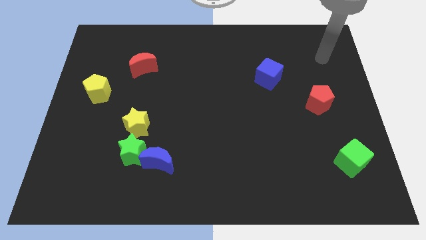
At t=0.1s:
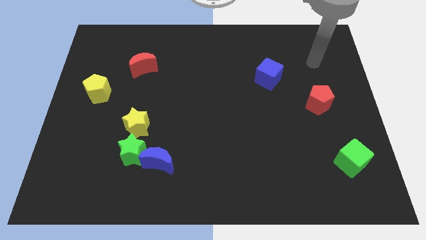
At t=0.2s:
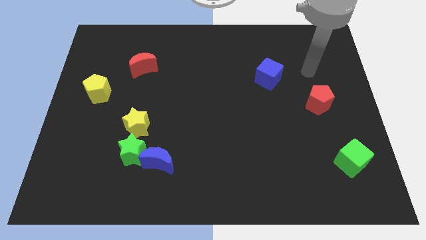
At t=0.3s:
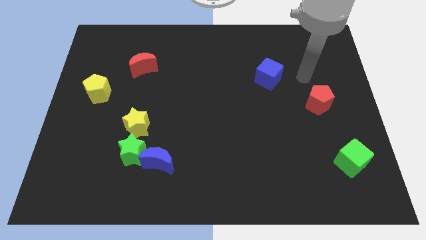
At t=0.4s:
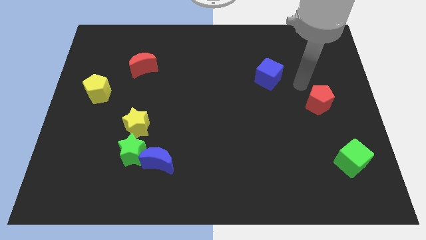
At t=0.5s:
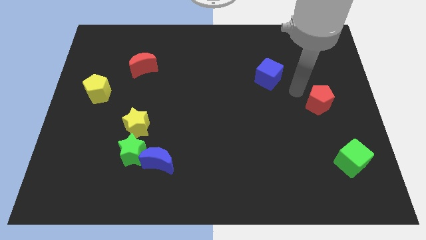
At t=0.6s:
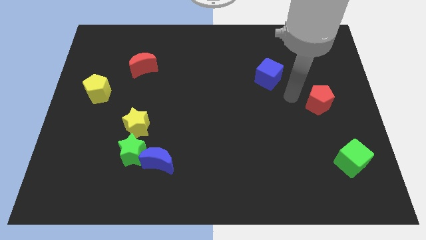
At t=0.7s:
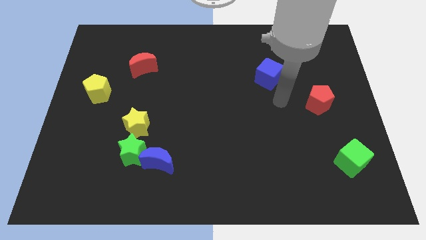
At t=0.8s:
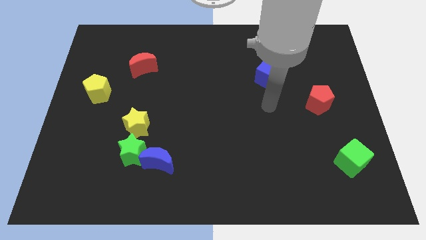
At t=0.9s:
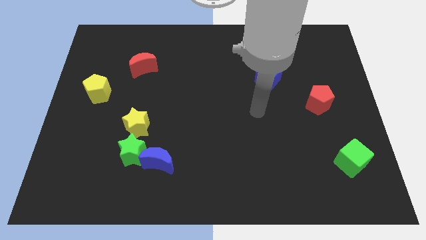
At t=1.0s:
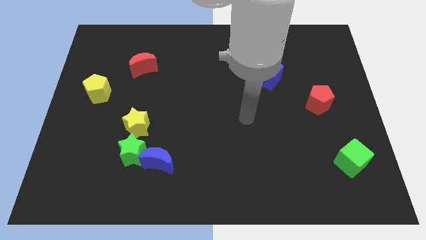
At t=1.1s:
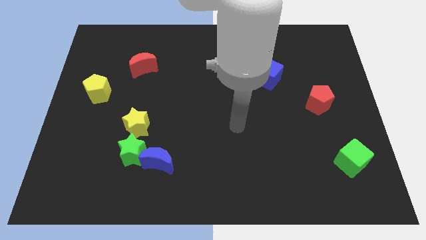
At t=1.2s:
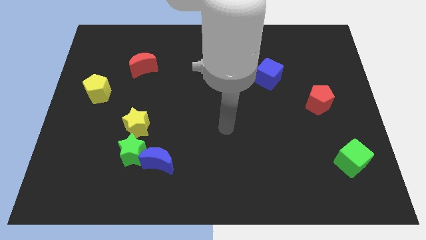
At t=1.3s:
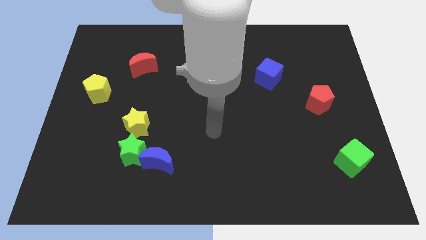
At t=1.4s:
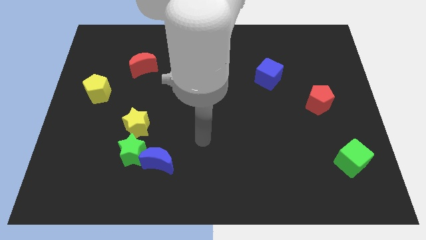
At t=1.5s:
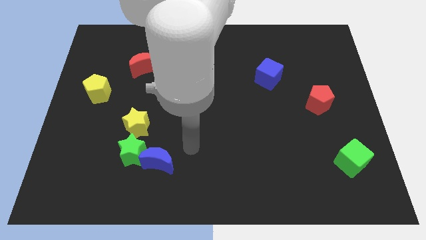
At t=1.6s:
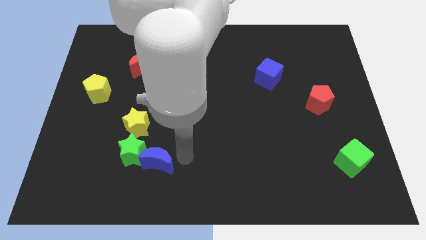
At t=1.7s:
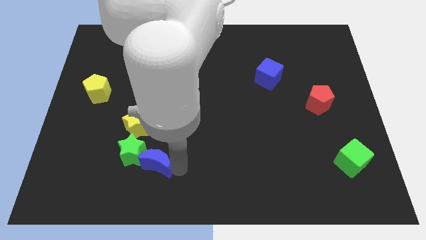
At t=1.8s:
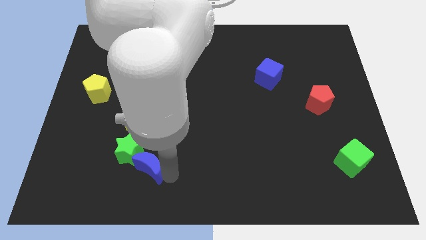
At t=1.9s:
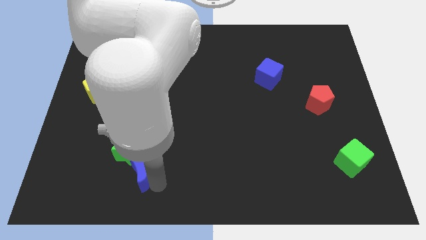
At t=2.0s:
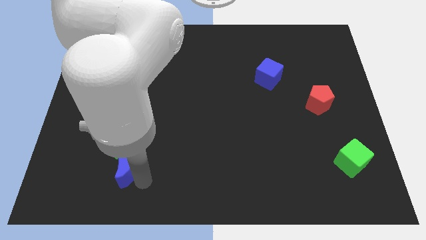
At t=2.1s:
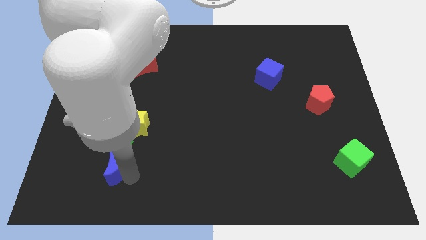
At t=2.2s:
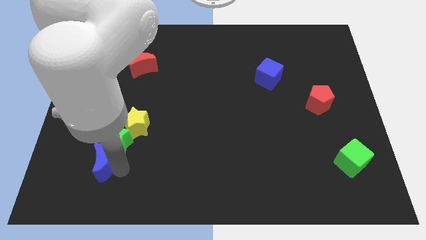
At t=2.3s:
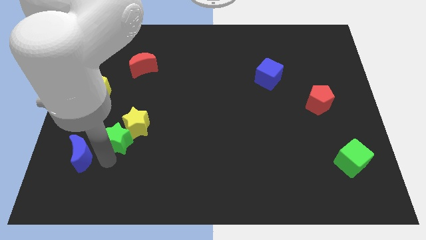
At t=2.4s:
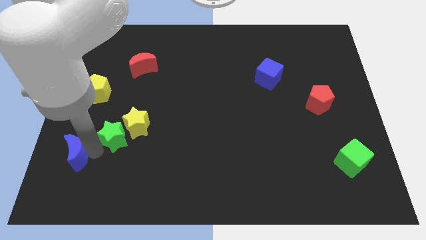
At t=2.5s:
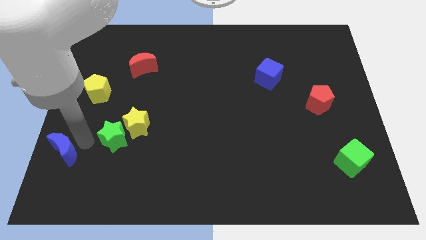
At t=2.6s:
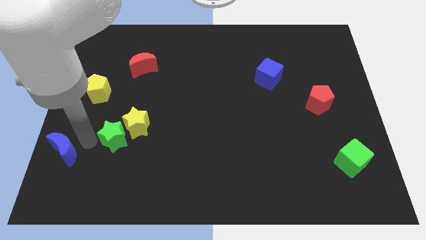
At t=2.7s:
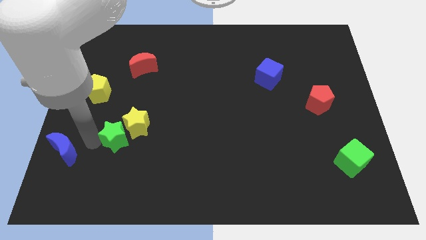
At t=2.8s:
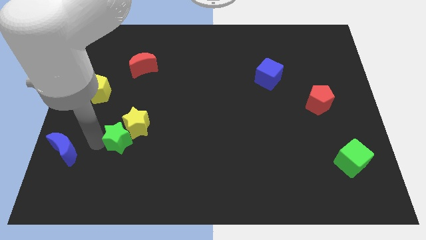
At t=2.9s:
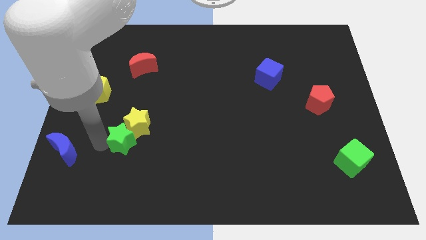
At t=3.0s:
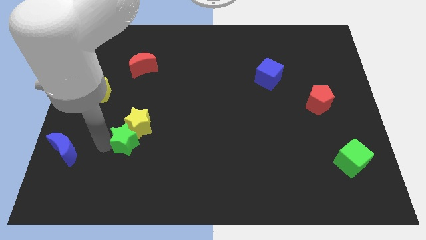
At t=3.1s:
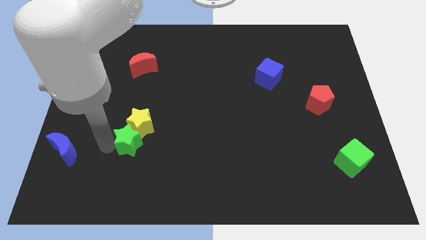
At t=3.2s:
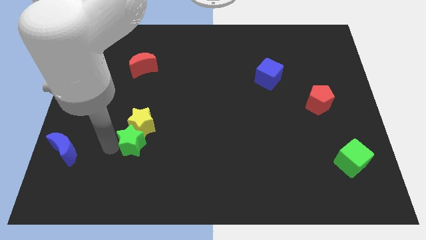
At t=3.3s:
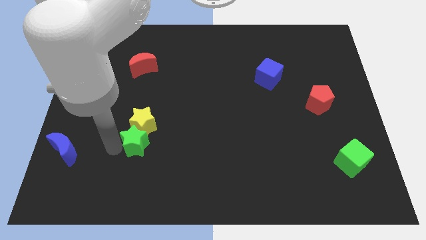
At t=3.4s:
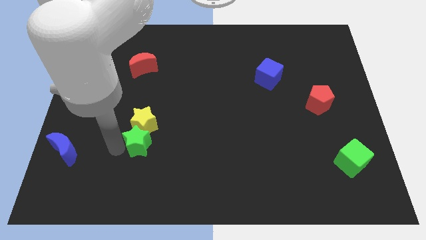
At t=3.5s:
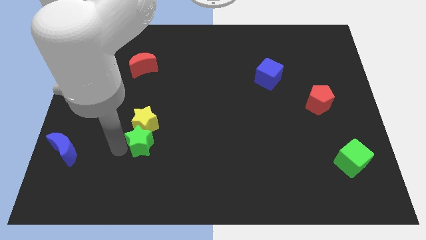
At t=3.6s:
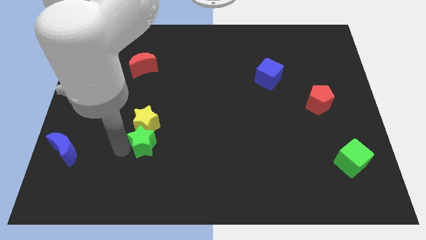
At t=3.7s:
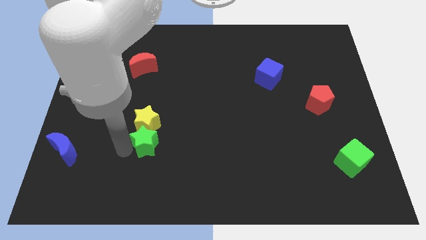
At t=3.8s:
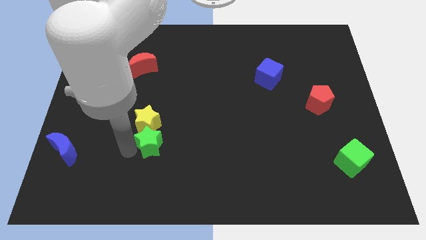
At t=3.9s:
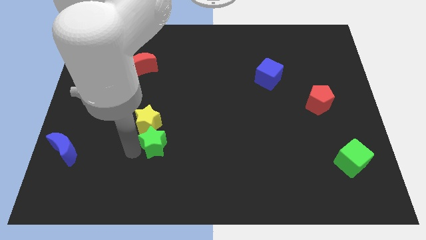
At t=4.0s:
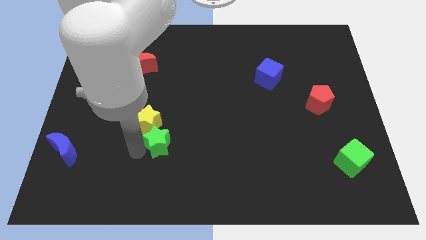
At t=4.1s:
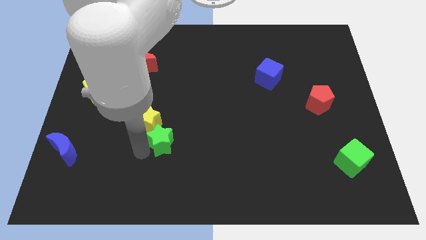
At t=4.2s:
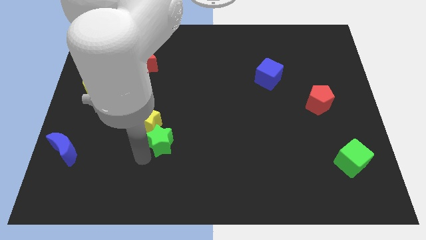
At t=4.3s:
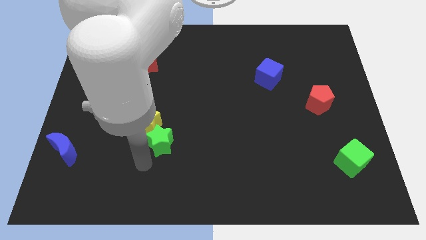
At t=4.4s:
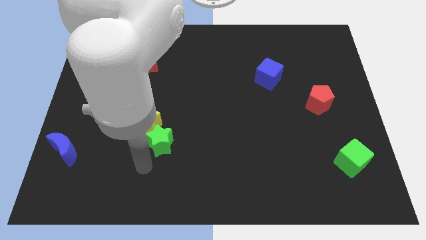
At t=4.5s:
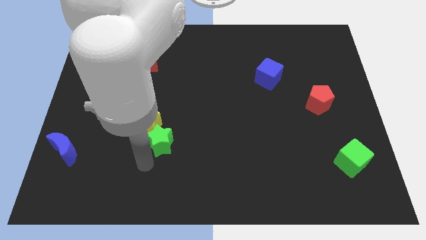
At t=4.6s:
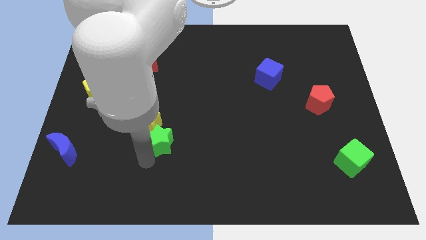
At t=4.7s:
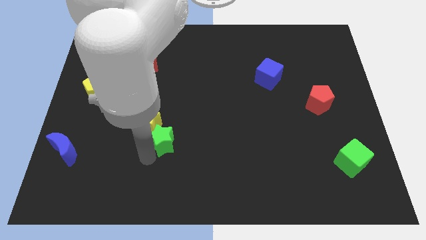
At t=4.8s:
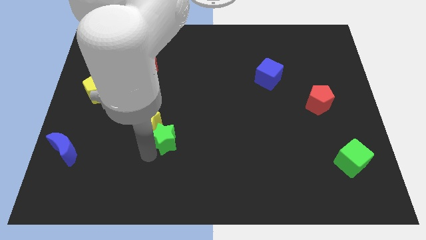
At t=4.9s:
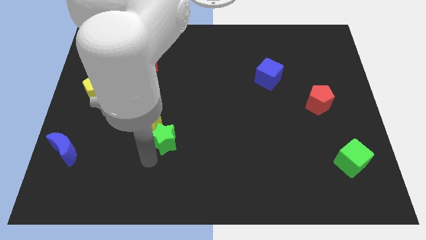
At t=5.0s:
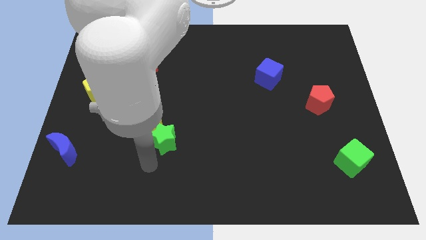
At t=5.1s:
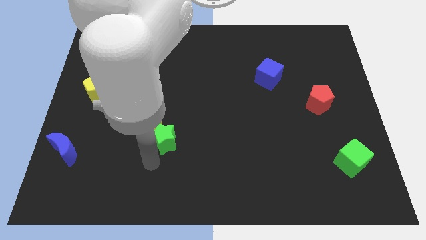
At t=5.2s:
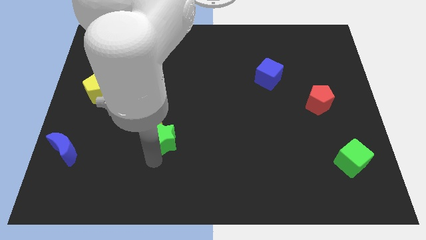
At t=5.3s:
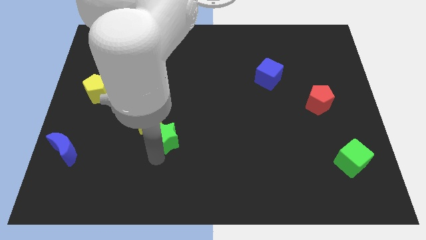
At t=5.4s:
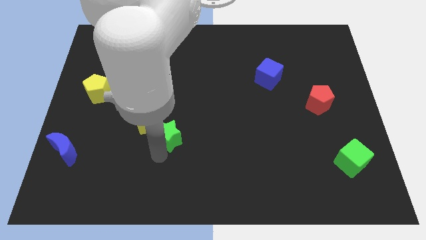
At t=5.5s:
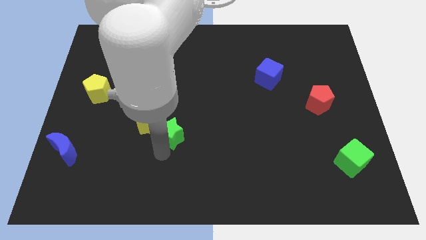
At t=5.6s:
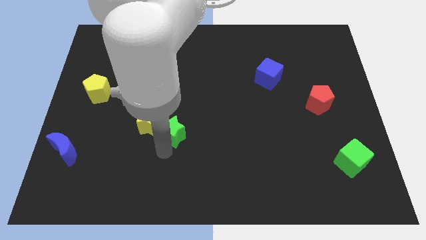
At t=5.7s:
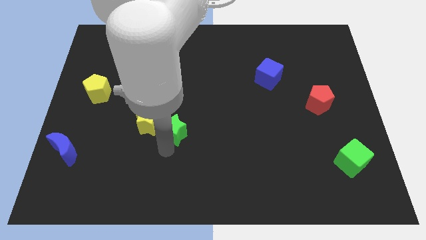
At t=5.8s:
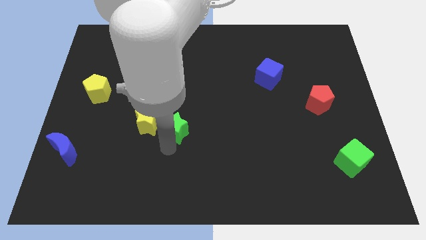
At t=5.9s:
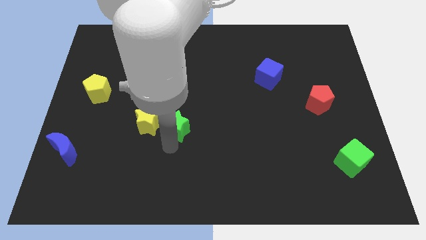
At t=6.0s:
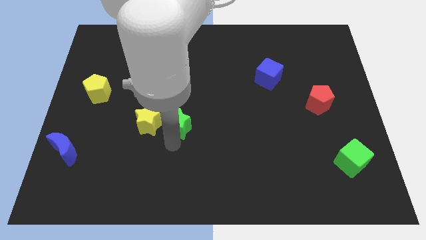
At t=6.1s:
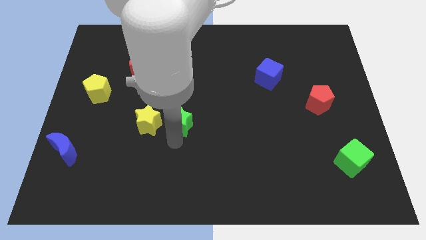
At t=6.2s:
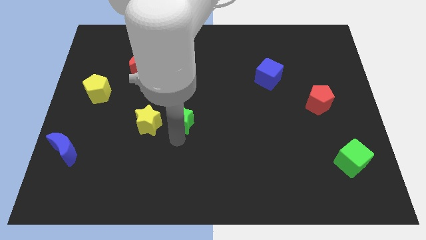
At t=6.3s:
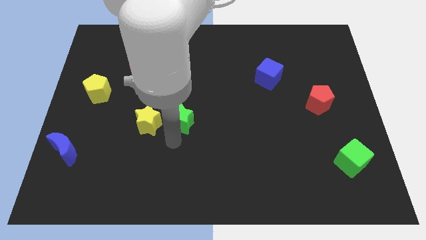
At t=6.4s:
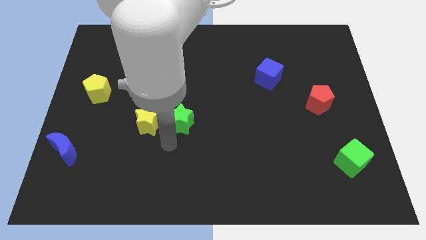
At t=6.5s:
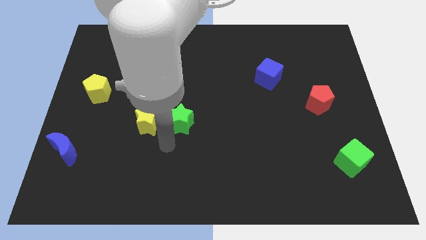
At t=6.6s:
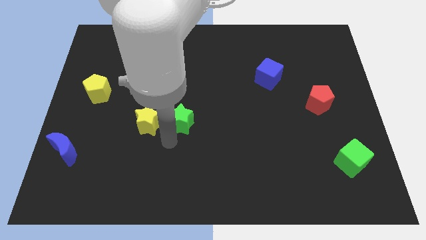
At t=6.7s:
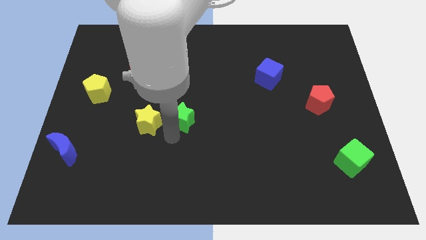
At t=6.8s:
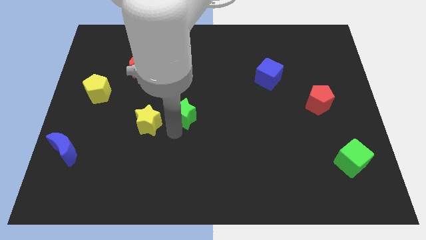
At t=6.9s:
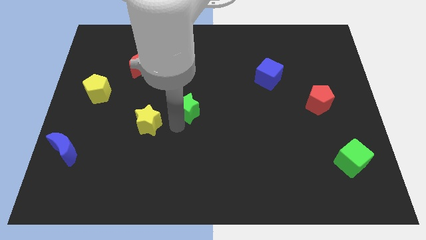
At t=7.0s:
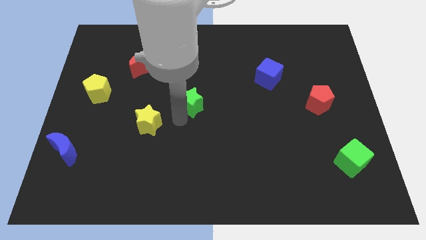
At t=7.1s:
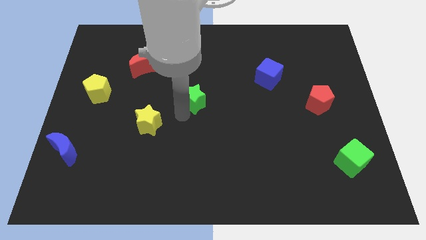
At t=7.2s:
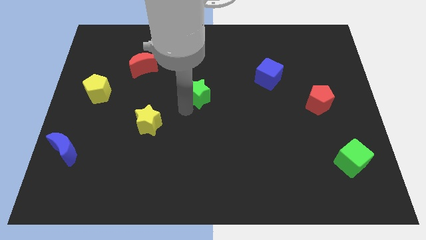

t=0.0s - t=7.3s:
slide the green star up and right diagonally

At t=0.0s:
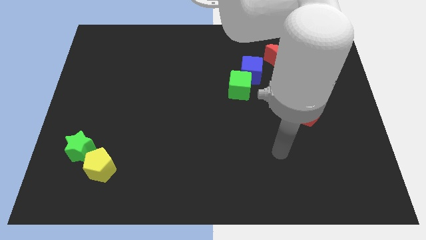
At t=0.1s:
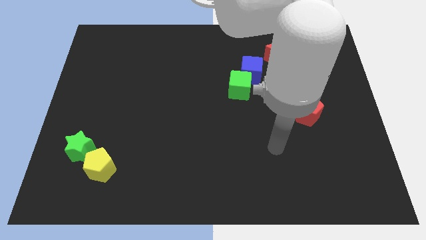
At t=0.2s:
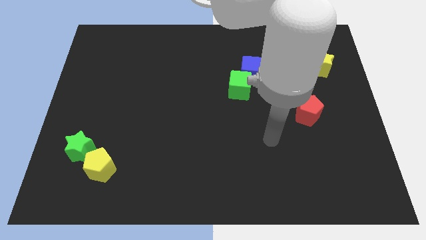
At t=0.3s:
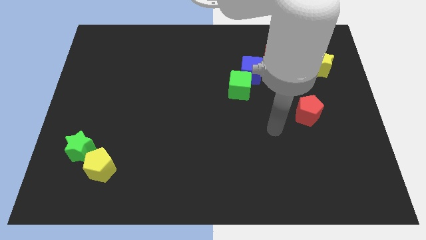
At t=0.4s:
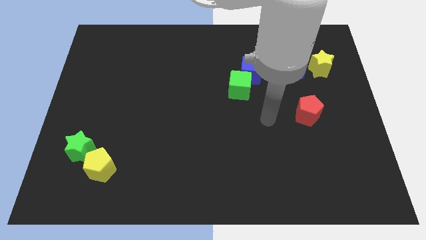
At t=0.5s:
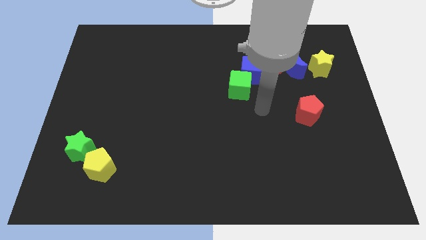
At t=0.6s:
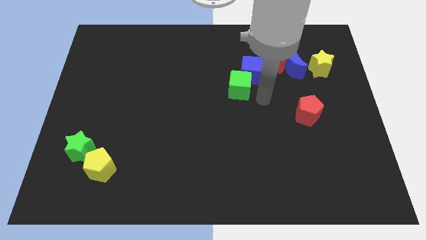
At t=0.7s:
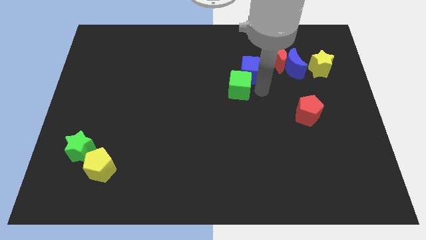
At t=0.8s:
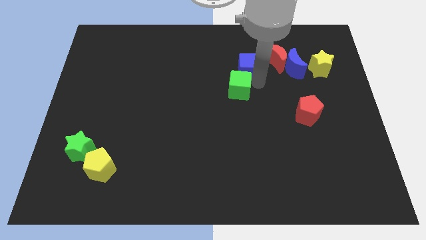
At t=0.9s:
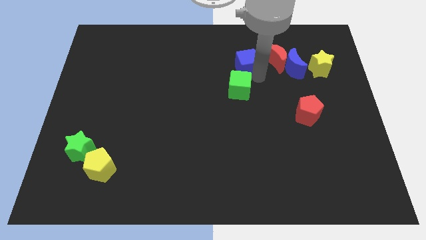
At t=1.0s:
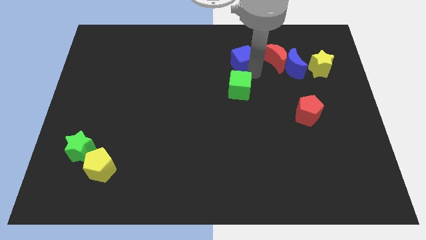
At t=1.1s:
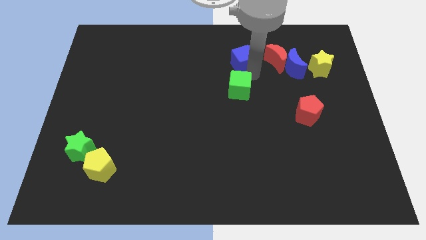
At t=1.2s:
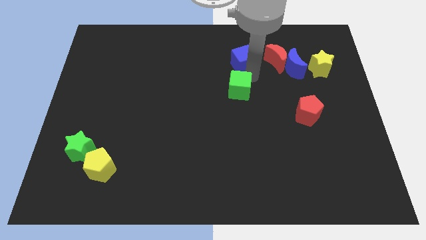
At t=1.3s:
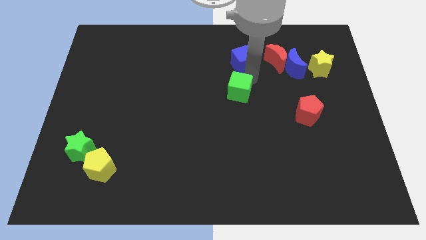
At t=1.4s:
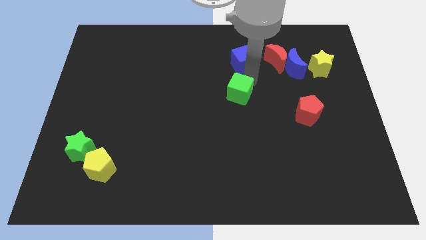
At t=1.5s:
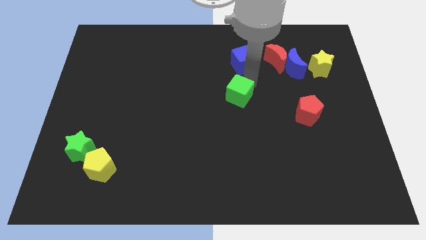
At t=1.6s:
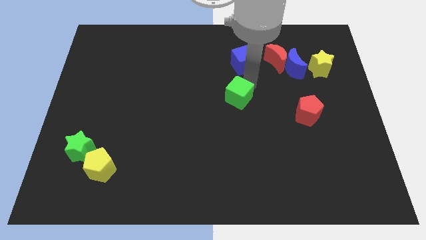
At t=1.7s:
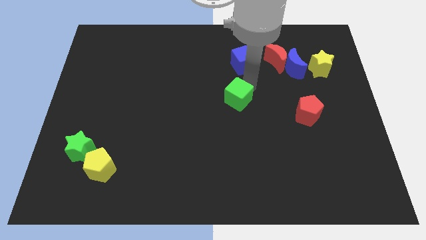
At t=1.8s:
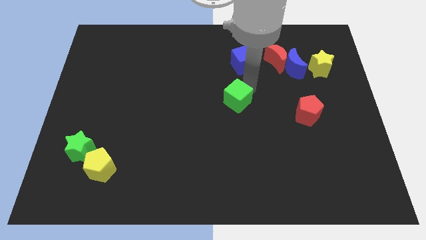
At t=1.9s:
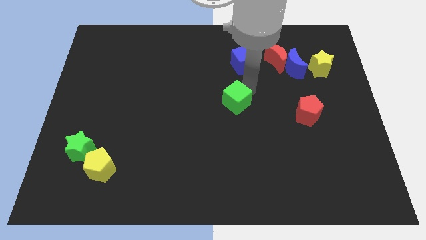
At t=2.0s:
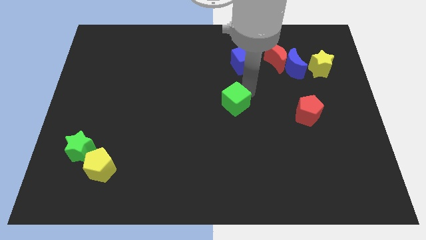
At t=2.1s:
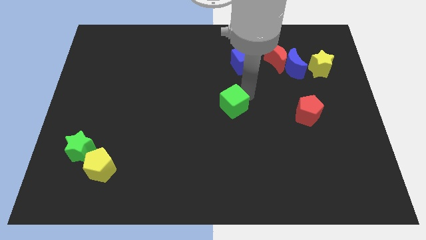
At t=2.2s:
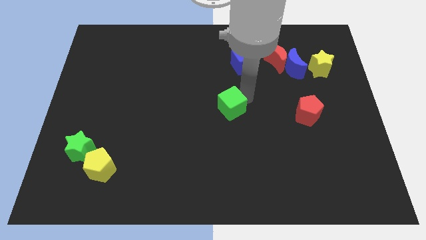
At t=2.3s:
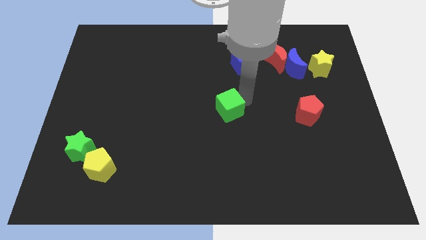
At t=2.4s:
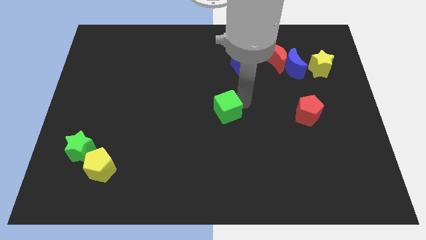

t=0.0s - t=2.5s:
slightly slide the green cube downwards and then left
